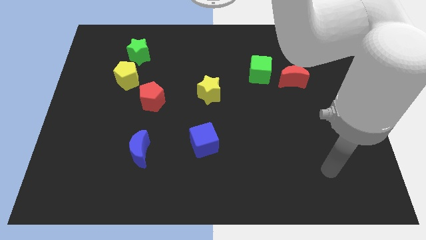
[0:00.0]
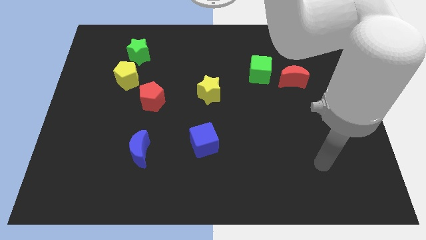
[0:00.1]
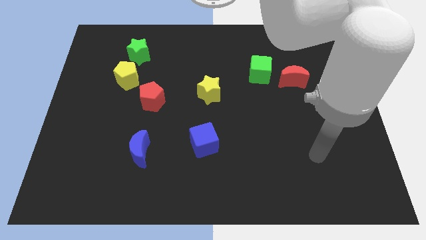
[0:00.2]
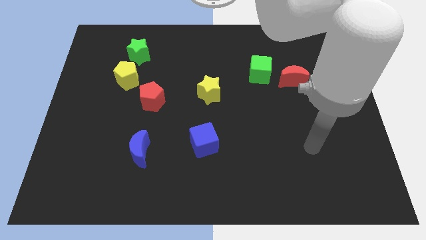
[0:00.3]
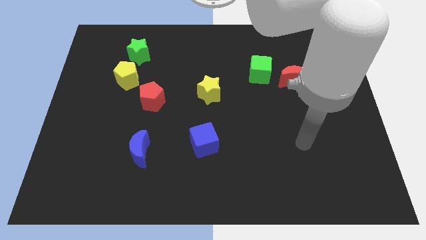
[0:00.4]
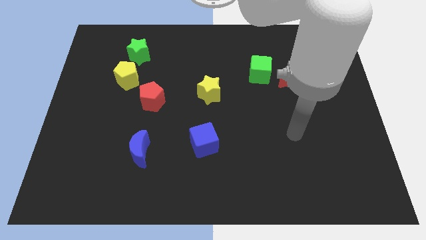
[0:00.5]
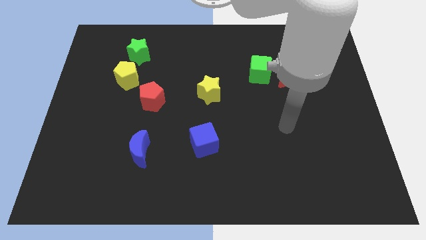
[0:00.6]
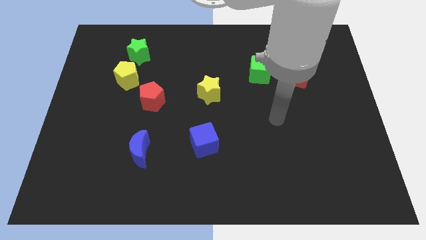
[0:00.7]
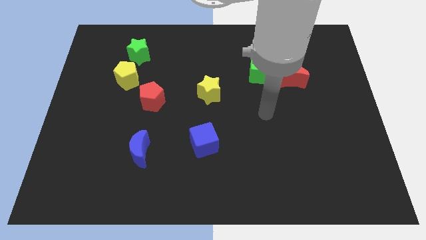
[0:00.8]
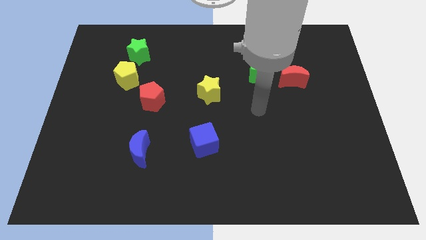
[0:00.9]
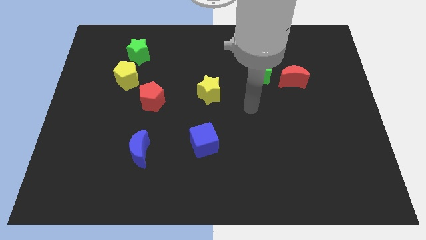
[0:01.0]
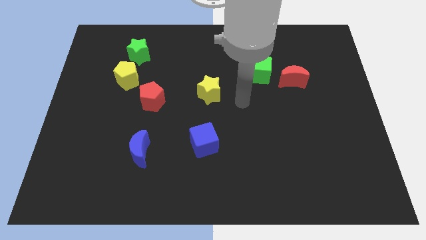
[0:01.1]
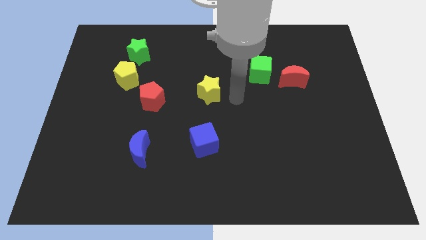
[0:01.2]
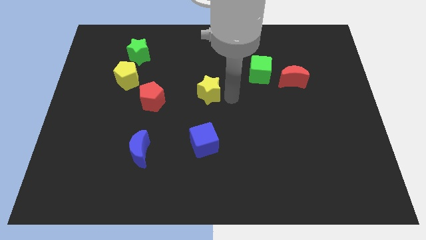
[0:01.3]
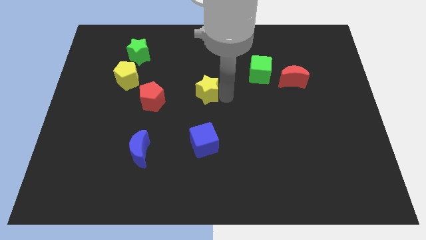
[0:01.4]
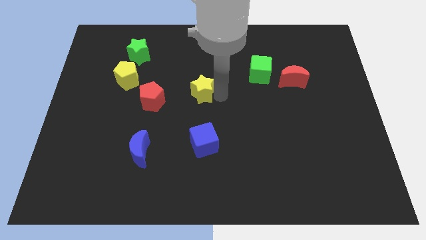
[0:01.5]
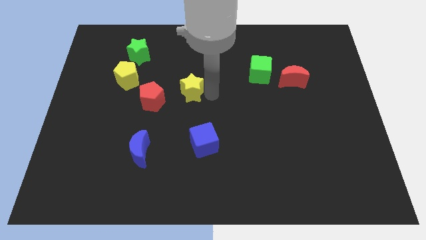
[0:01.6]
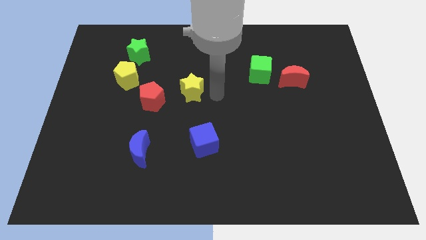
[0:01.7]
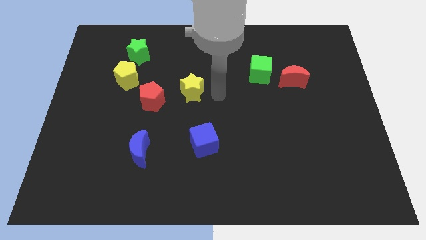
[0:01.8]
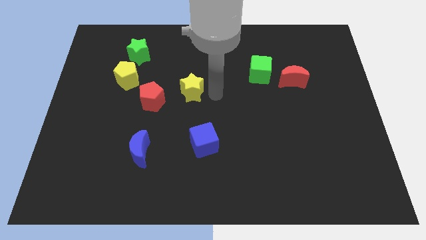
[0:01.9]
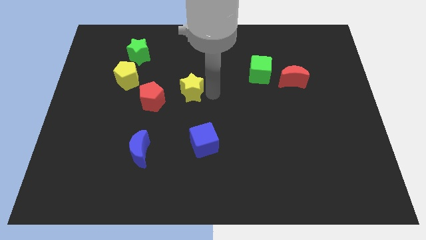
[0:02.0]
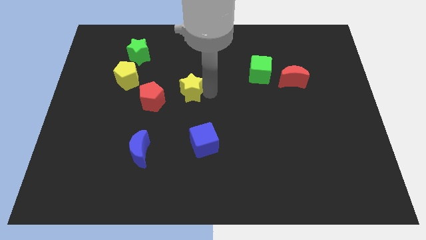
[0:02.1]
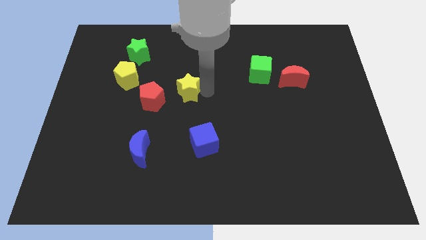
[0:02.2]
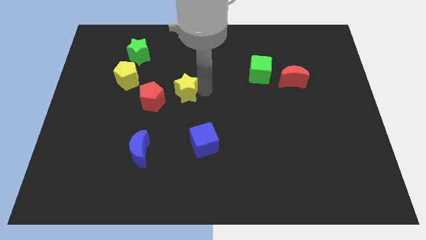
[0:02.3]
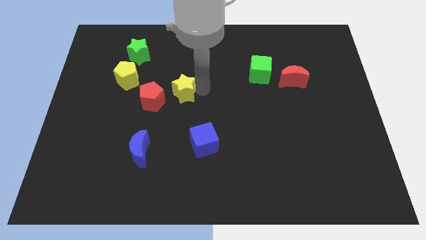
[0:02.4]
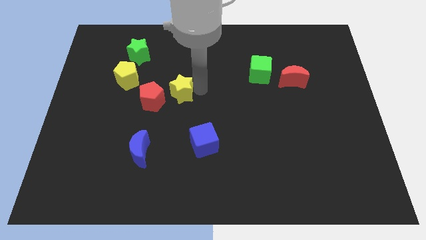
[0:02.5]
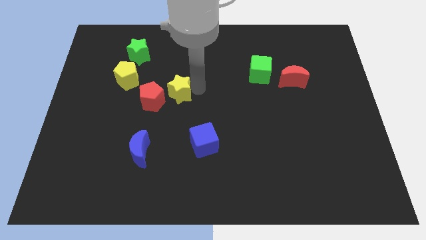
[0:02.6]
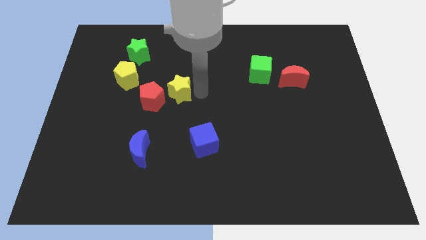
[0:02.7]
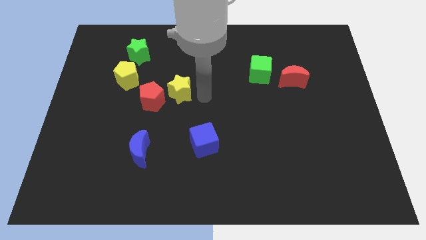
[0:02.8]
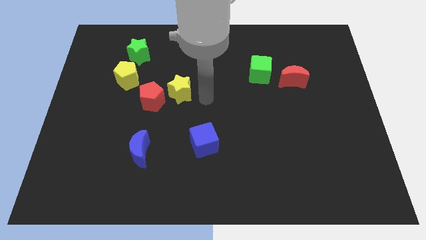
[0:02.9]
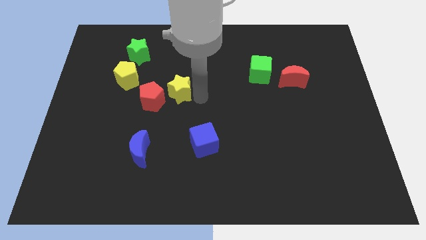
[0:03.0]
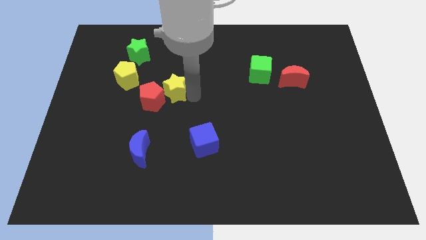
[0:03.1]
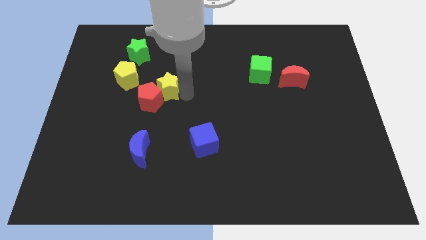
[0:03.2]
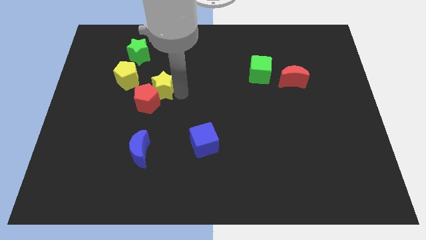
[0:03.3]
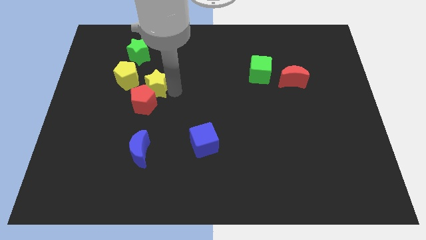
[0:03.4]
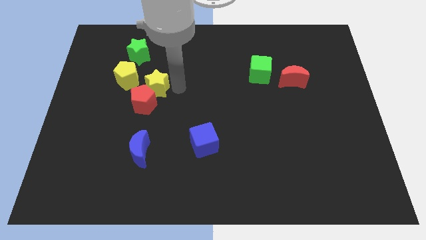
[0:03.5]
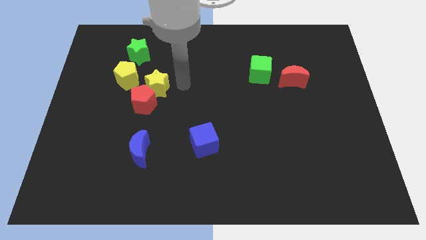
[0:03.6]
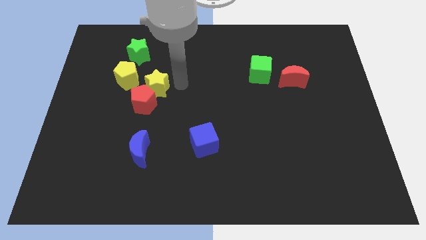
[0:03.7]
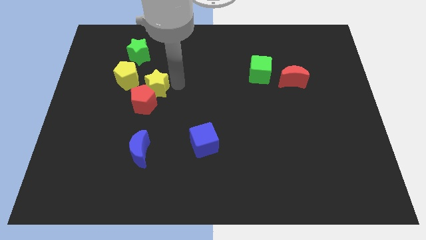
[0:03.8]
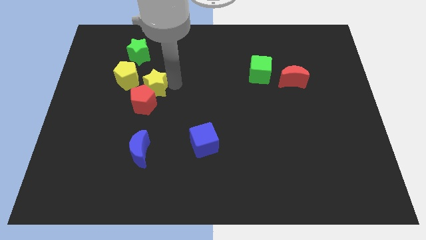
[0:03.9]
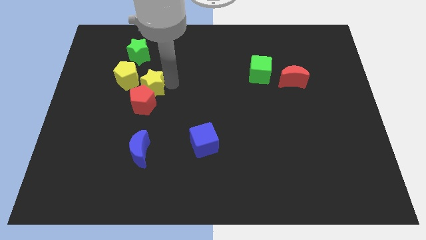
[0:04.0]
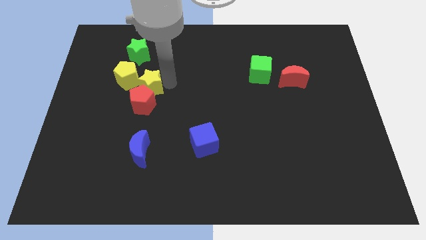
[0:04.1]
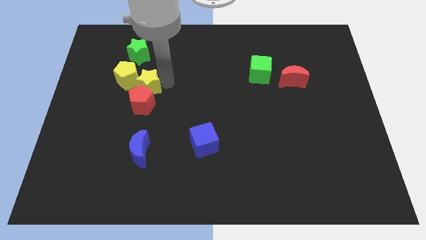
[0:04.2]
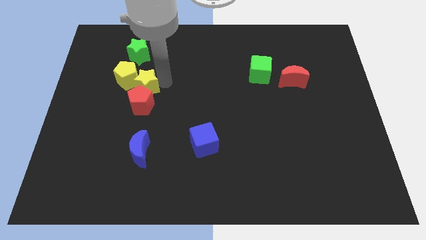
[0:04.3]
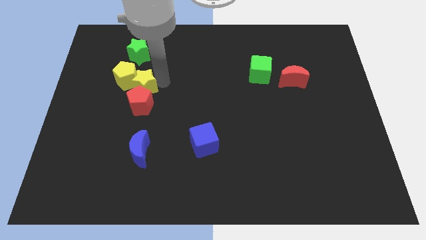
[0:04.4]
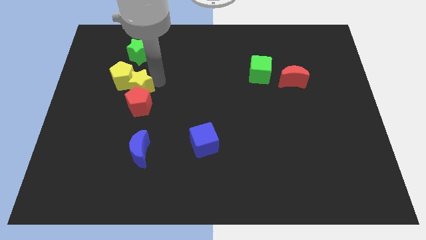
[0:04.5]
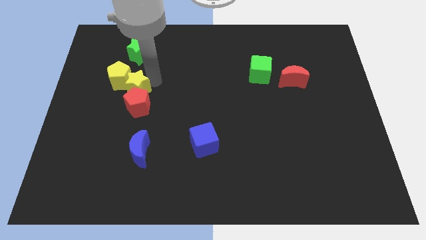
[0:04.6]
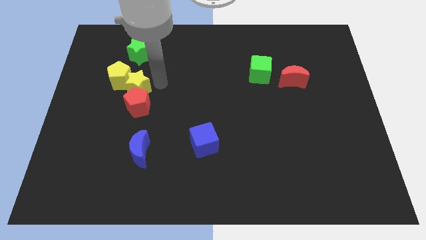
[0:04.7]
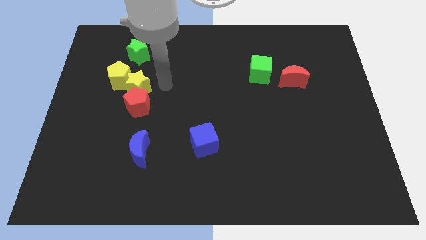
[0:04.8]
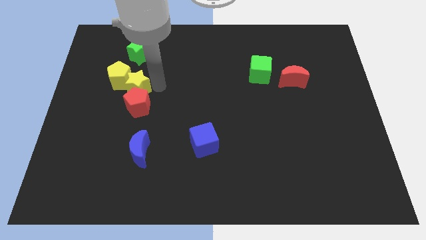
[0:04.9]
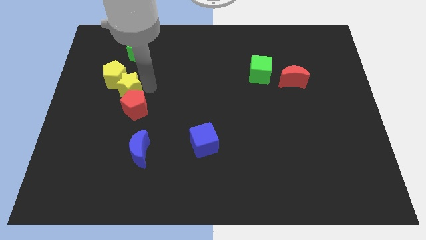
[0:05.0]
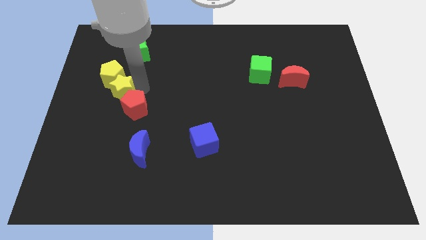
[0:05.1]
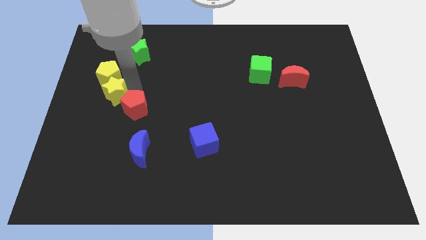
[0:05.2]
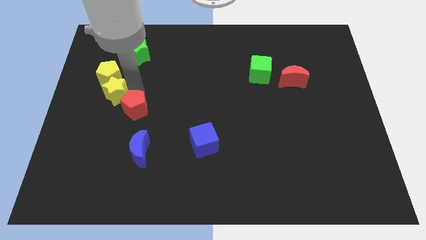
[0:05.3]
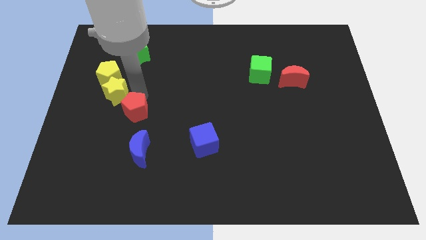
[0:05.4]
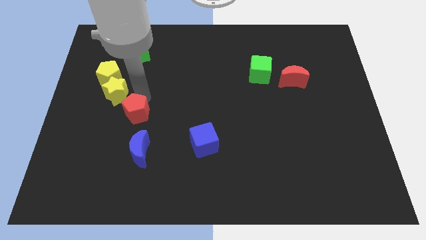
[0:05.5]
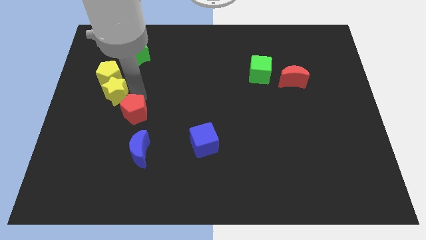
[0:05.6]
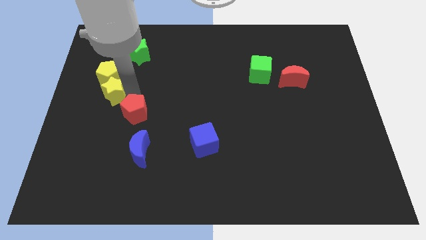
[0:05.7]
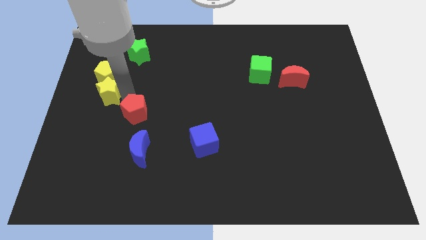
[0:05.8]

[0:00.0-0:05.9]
slide the yellow star to the center left

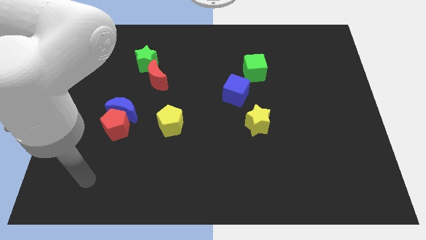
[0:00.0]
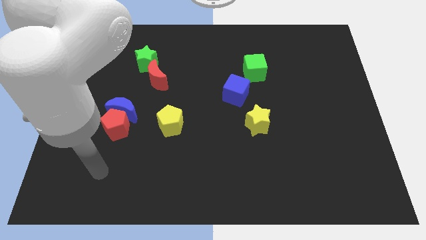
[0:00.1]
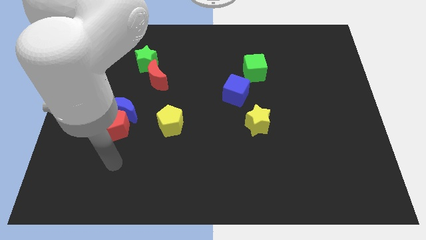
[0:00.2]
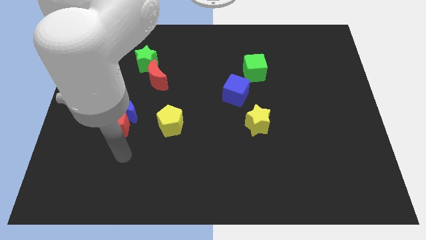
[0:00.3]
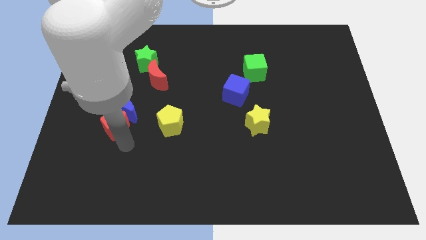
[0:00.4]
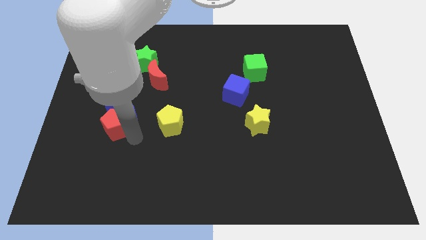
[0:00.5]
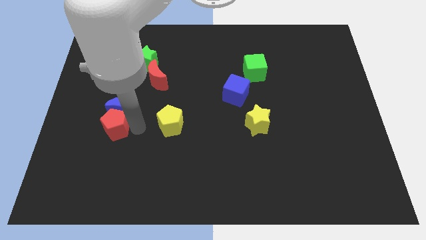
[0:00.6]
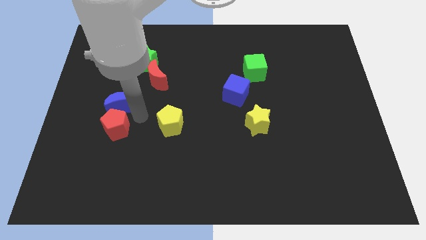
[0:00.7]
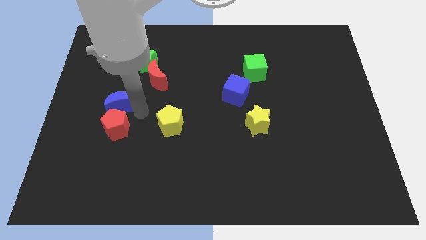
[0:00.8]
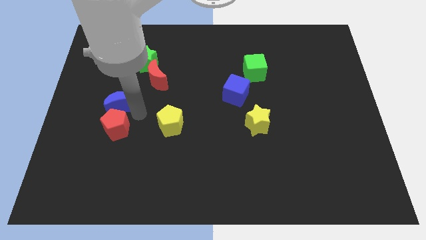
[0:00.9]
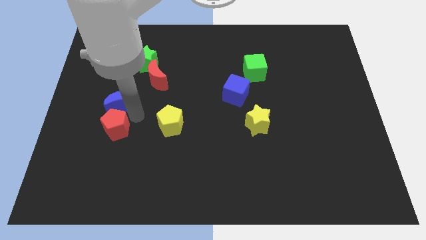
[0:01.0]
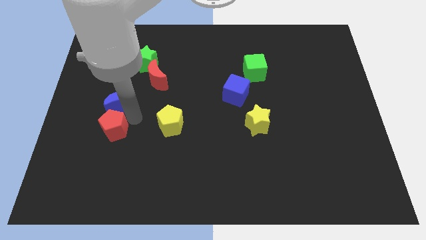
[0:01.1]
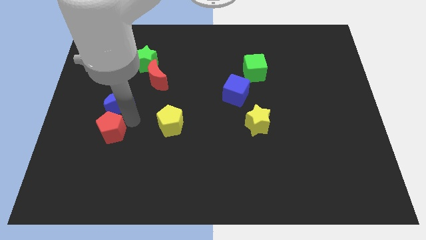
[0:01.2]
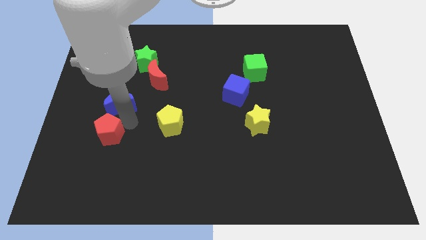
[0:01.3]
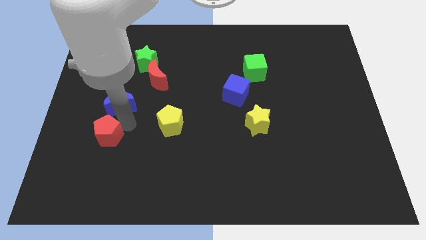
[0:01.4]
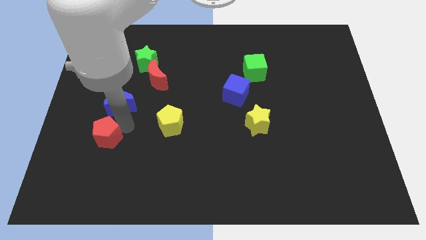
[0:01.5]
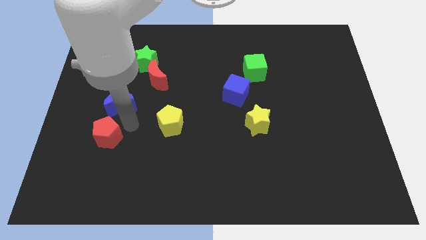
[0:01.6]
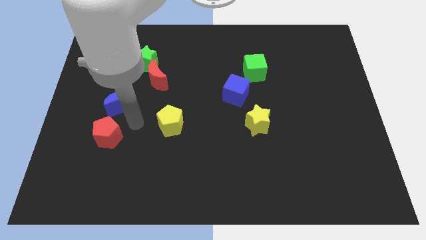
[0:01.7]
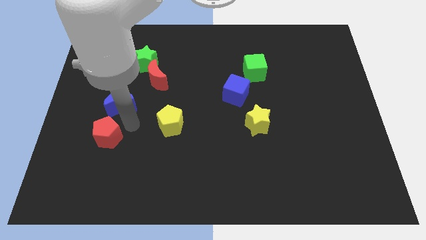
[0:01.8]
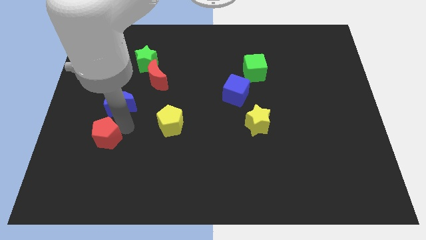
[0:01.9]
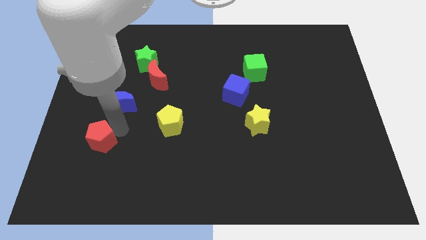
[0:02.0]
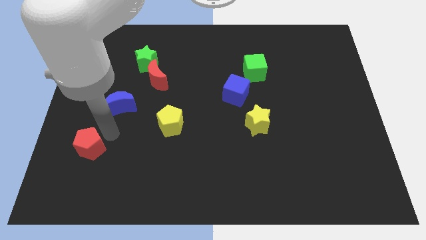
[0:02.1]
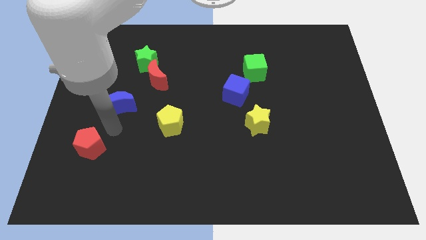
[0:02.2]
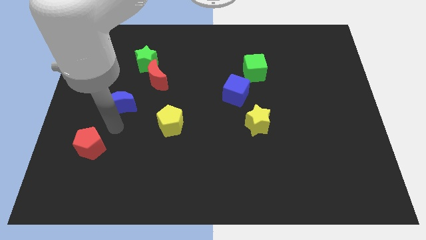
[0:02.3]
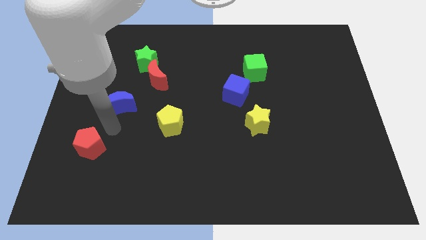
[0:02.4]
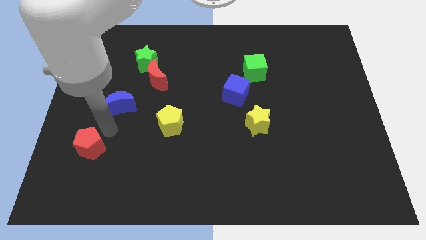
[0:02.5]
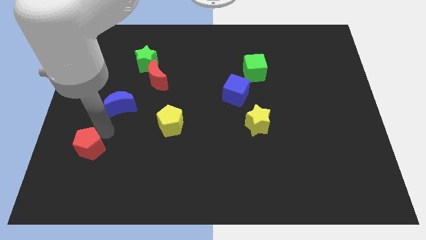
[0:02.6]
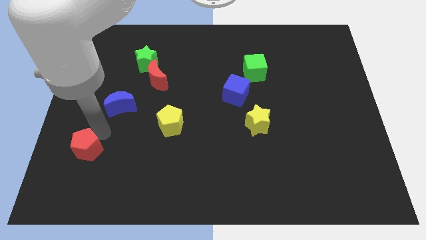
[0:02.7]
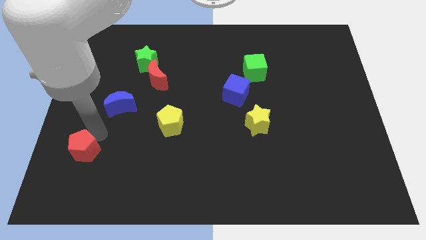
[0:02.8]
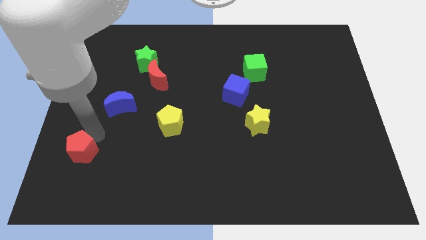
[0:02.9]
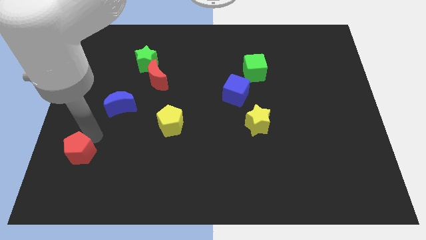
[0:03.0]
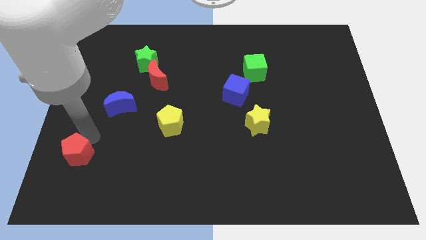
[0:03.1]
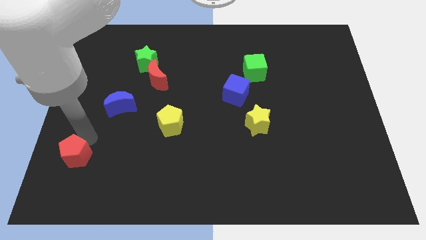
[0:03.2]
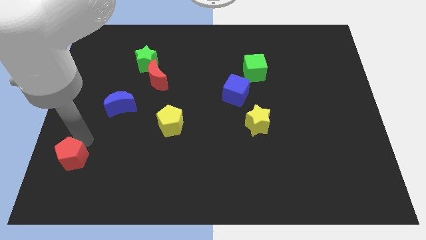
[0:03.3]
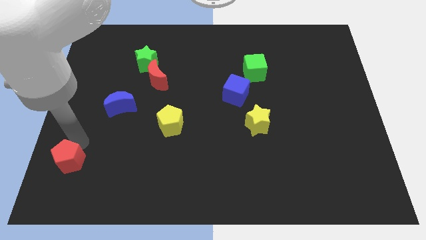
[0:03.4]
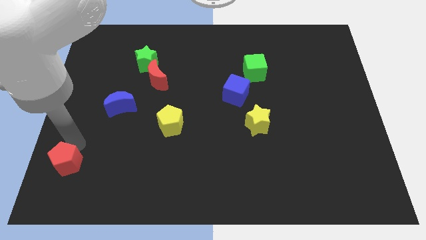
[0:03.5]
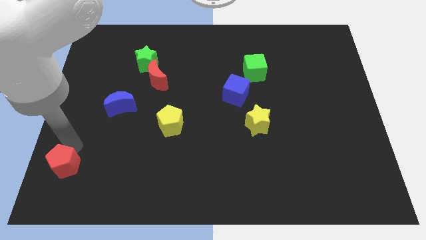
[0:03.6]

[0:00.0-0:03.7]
put the red pentagon to the bottom left of the board
